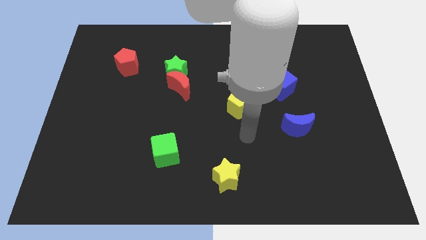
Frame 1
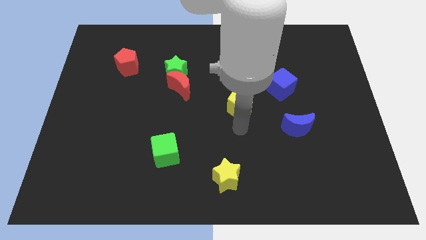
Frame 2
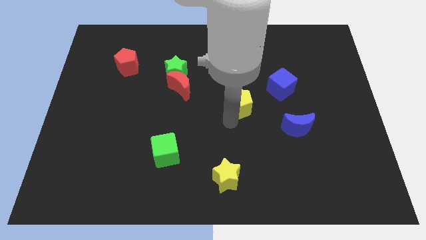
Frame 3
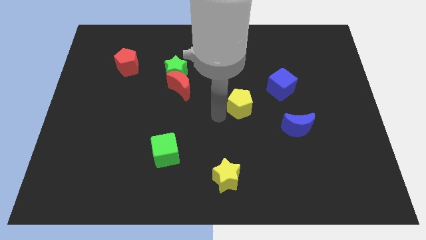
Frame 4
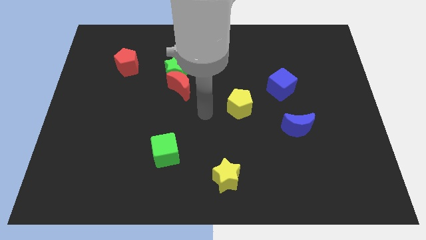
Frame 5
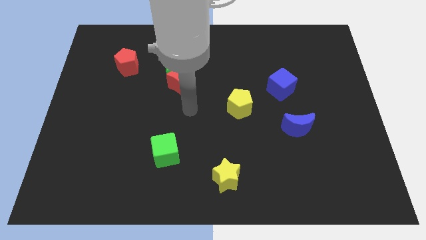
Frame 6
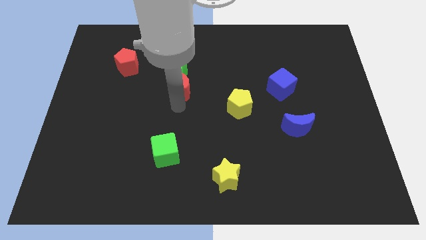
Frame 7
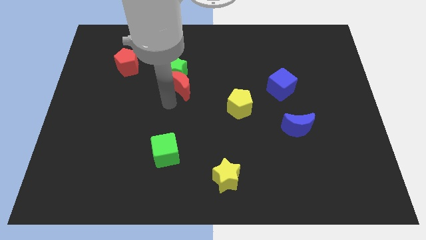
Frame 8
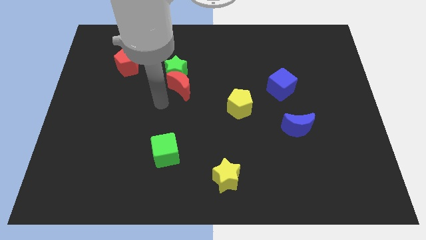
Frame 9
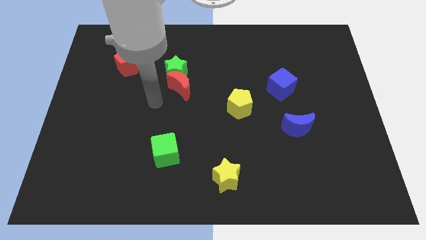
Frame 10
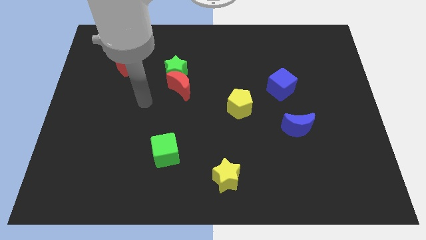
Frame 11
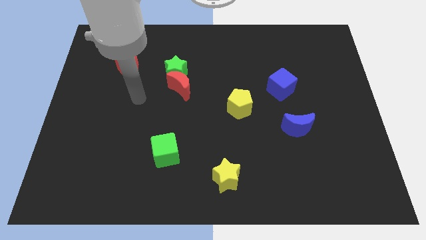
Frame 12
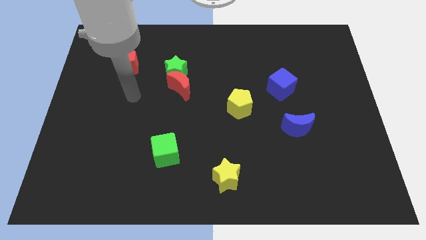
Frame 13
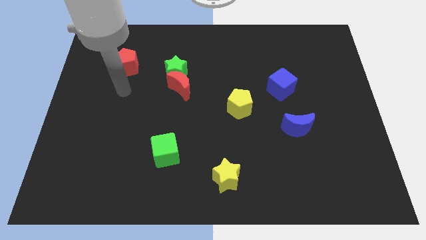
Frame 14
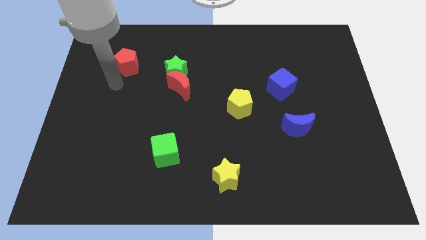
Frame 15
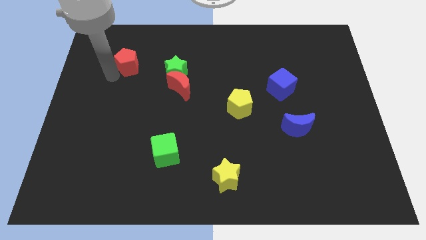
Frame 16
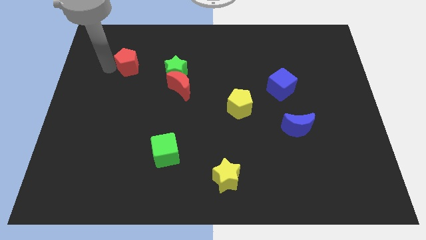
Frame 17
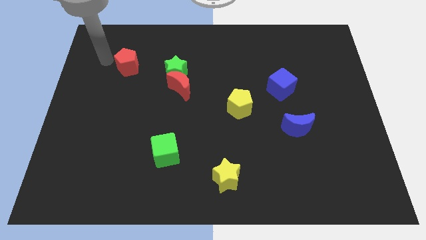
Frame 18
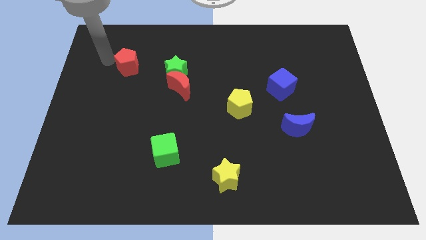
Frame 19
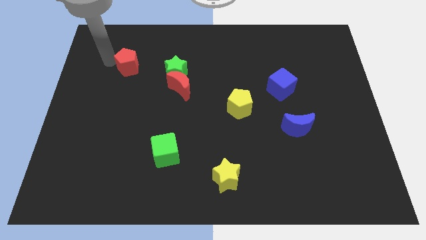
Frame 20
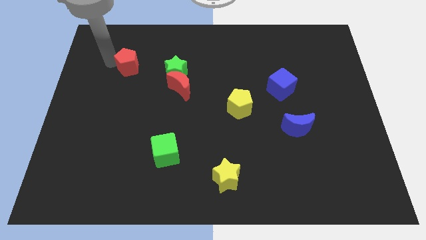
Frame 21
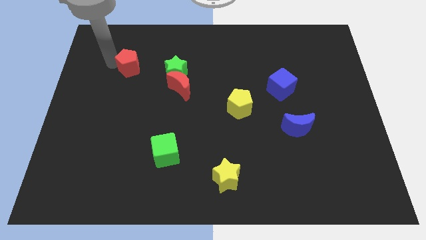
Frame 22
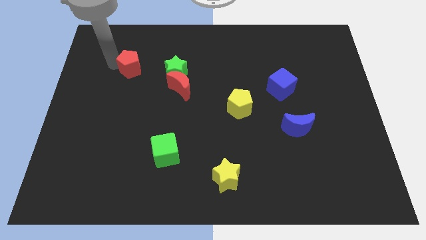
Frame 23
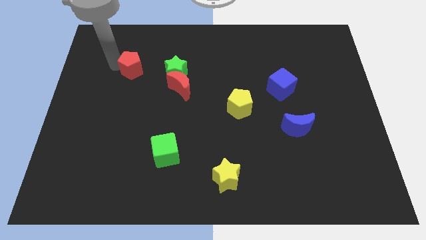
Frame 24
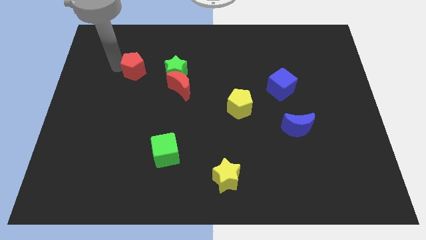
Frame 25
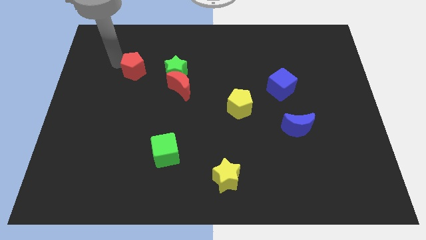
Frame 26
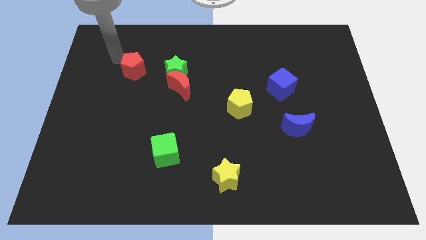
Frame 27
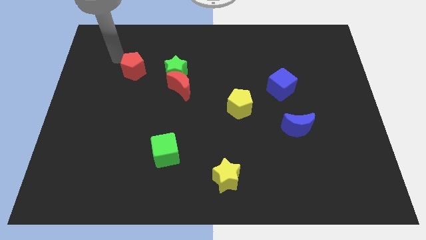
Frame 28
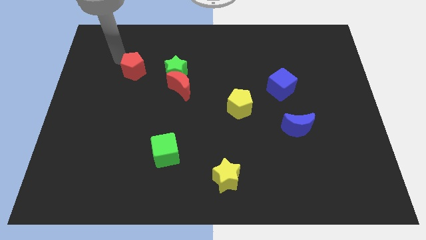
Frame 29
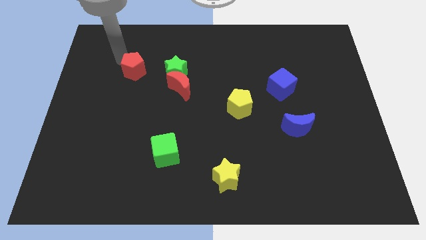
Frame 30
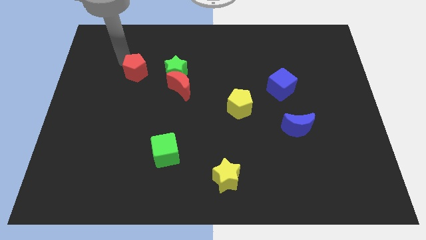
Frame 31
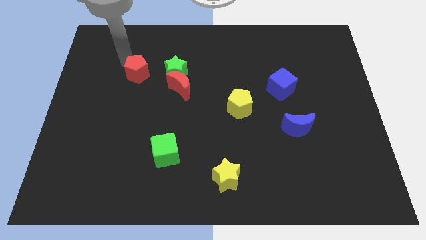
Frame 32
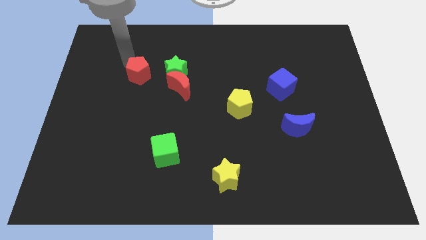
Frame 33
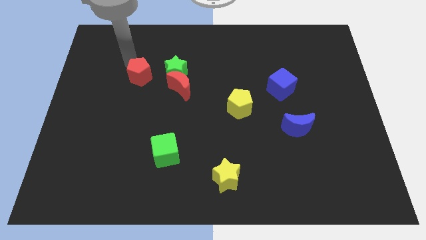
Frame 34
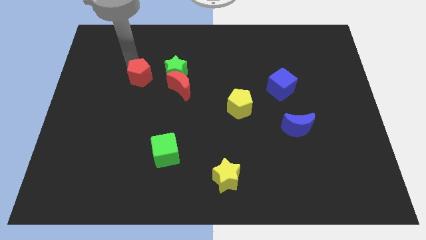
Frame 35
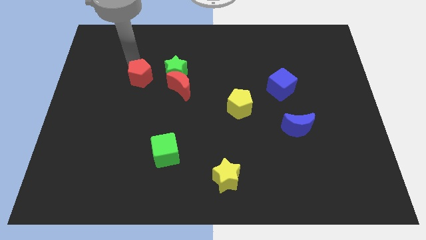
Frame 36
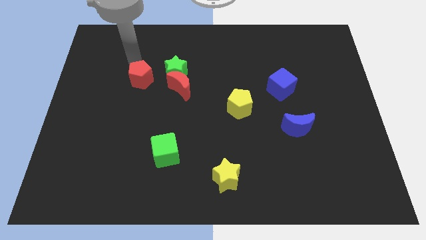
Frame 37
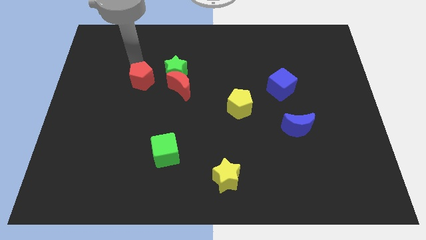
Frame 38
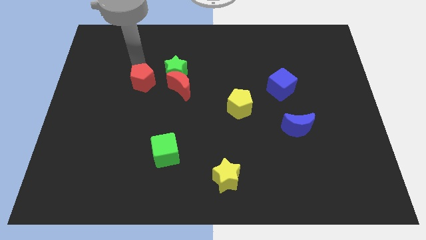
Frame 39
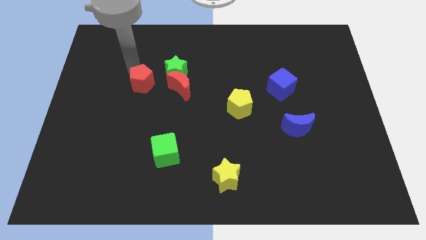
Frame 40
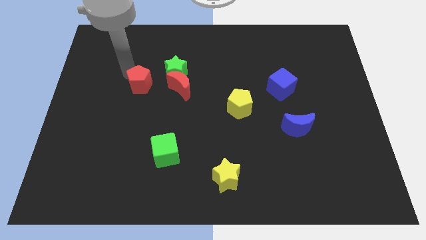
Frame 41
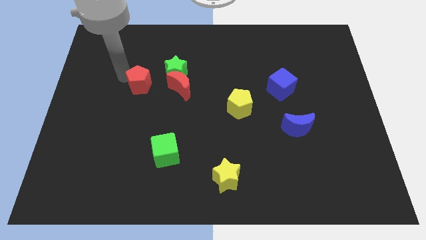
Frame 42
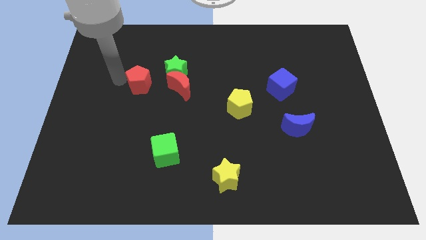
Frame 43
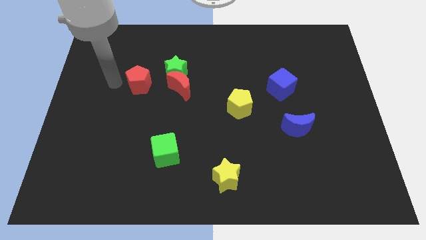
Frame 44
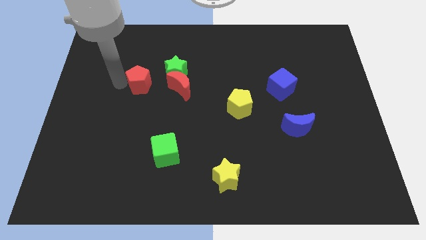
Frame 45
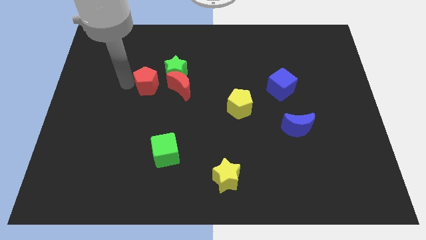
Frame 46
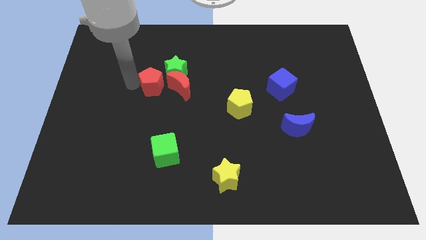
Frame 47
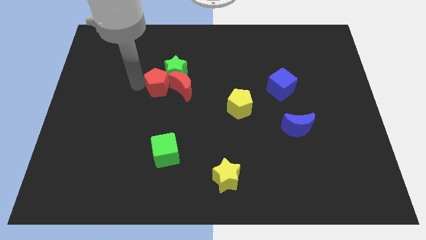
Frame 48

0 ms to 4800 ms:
push the red pentagon towards the red moon

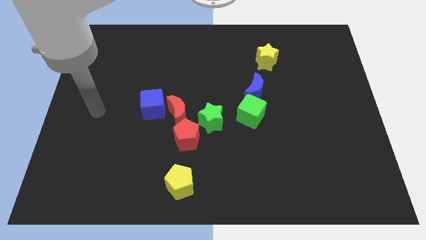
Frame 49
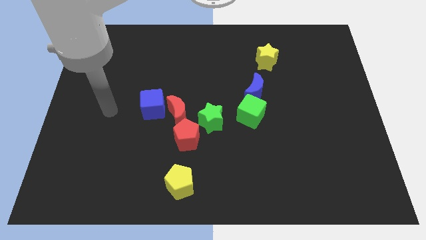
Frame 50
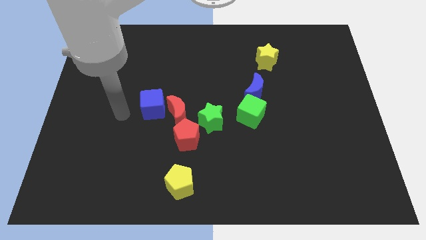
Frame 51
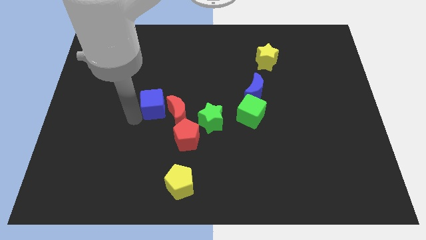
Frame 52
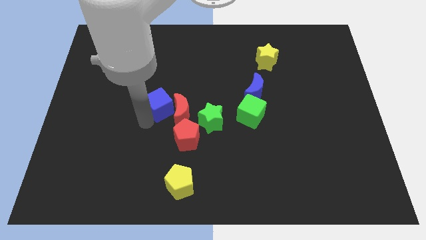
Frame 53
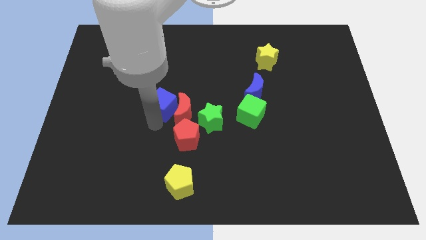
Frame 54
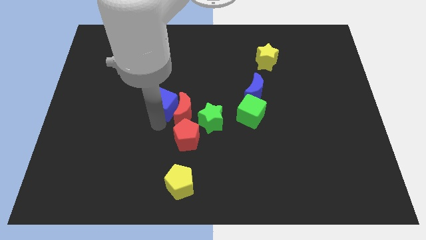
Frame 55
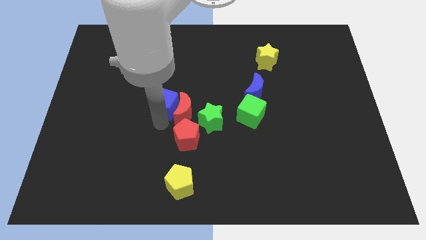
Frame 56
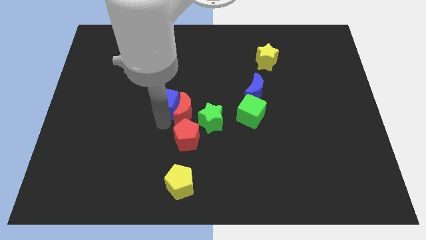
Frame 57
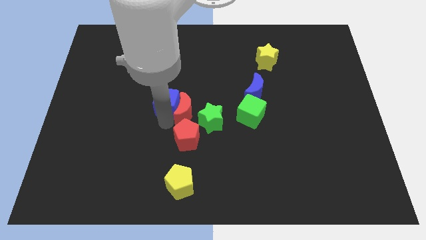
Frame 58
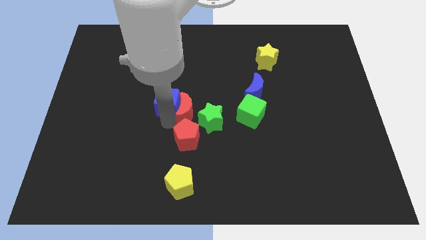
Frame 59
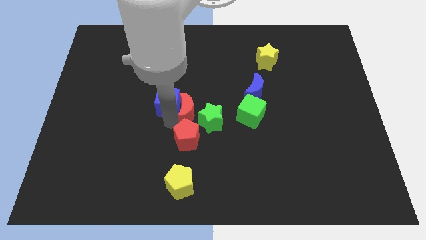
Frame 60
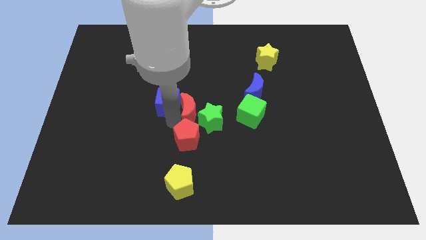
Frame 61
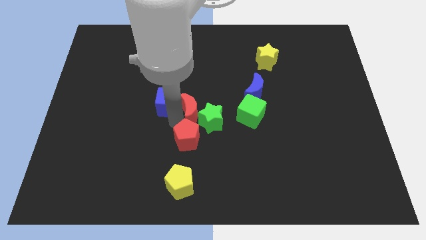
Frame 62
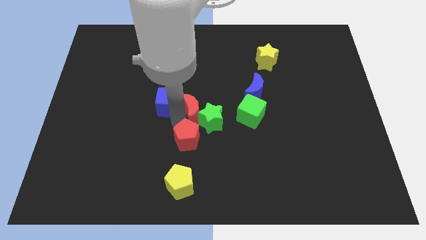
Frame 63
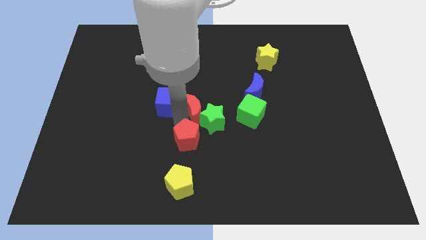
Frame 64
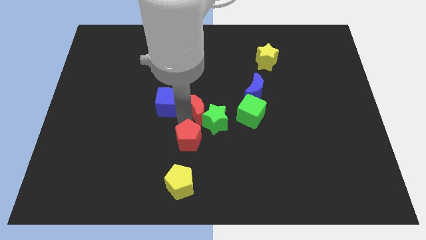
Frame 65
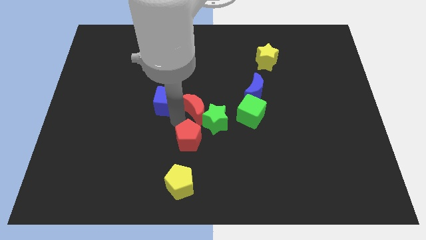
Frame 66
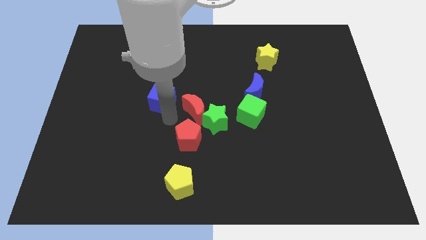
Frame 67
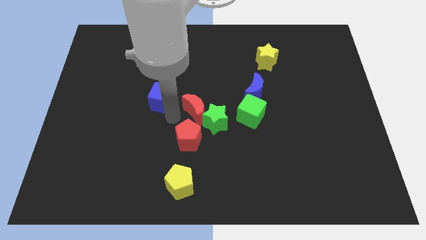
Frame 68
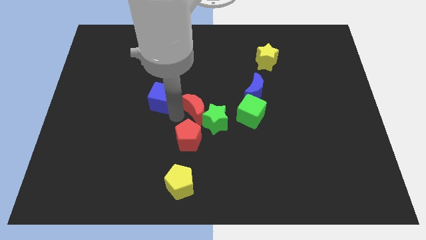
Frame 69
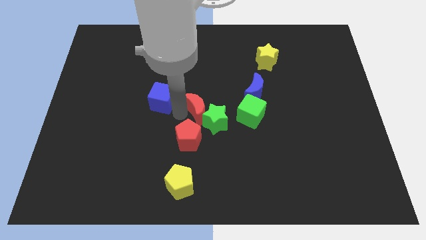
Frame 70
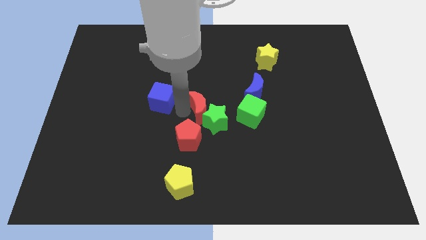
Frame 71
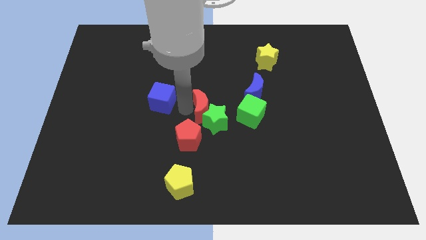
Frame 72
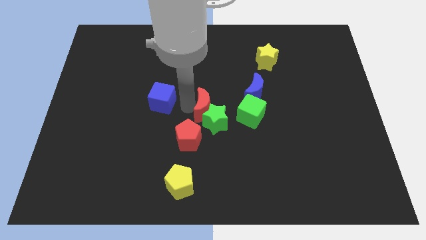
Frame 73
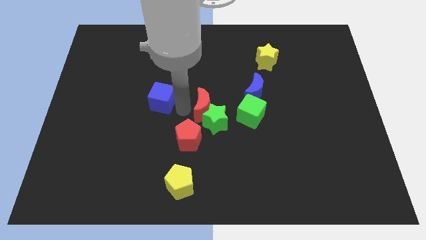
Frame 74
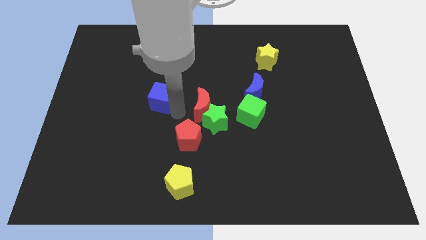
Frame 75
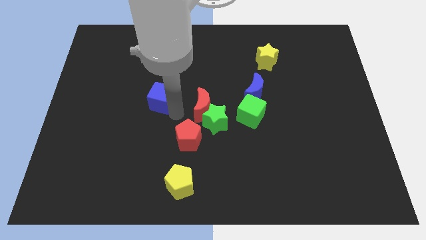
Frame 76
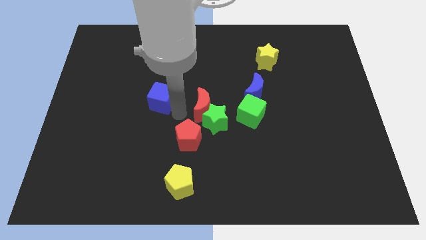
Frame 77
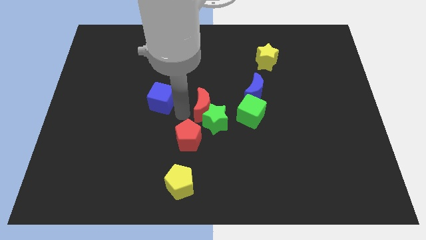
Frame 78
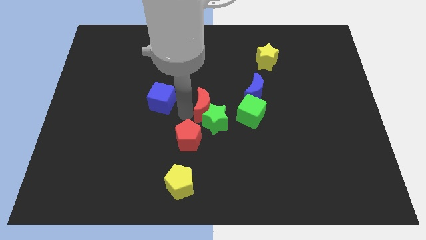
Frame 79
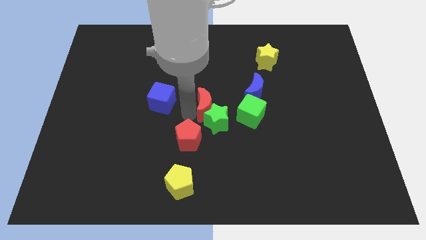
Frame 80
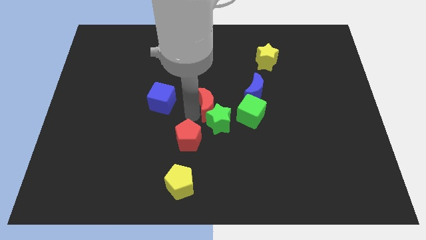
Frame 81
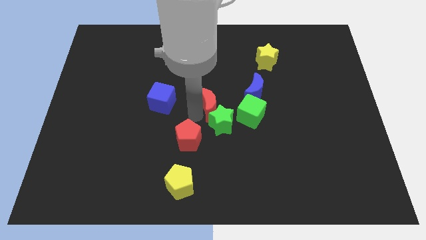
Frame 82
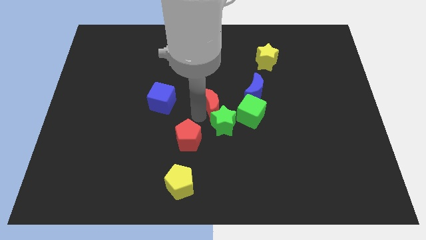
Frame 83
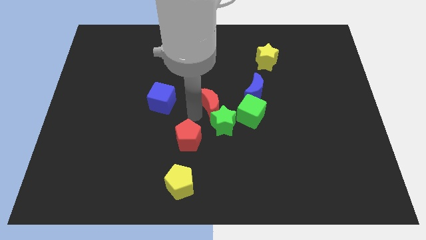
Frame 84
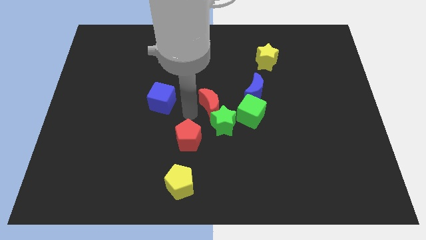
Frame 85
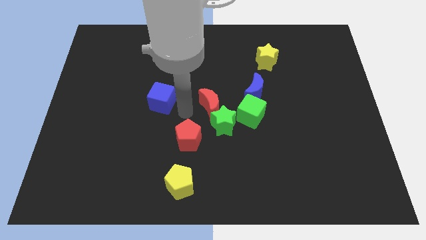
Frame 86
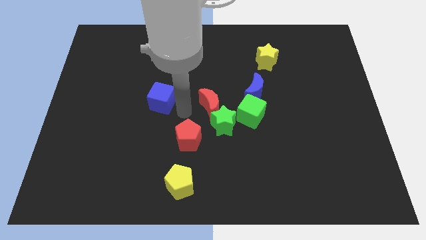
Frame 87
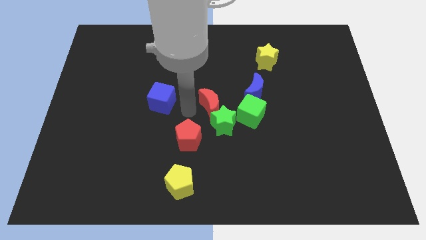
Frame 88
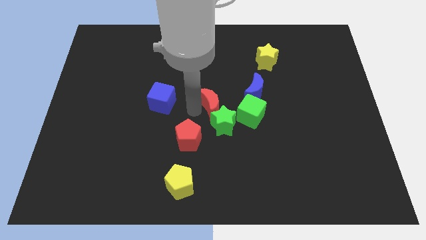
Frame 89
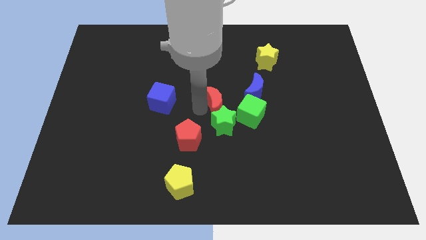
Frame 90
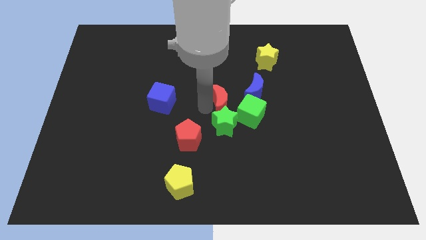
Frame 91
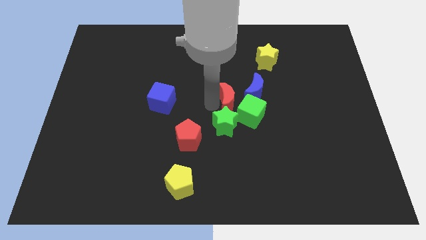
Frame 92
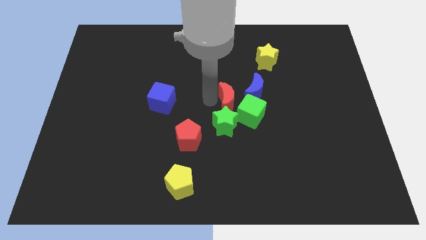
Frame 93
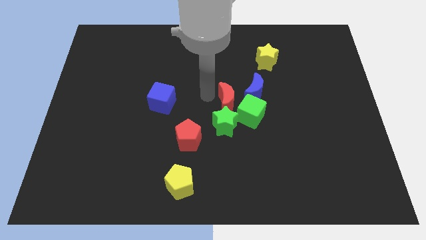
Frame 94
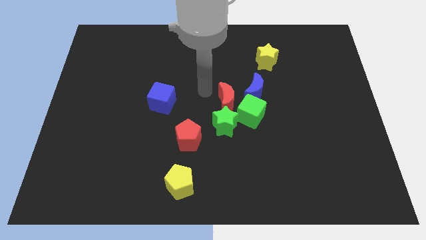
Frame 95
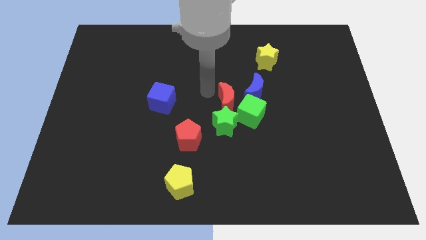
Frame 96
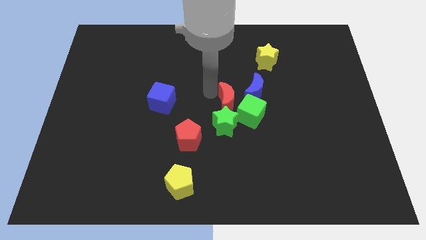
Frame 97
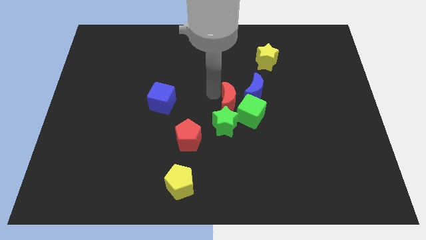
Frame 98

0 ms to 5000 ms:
push the red moon towards the green cube
